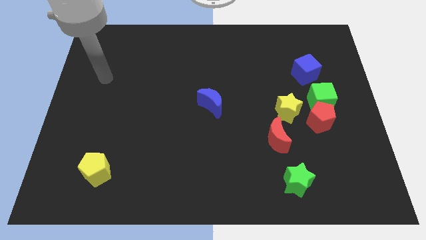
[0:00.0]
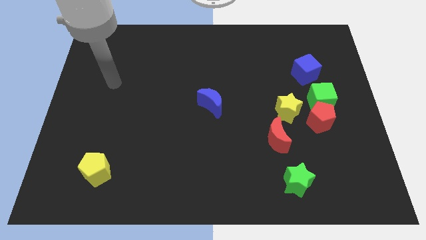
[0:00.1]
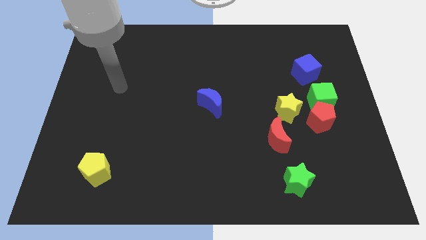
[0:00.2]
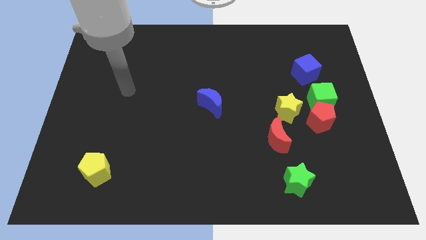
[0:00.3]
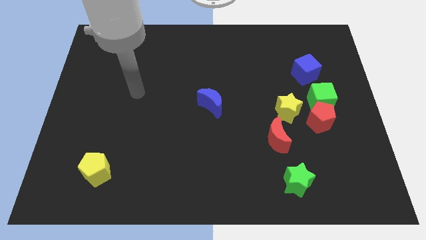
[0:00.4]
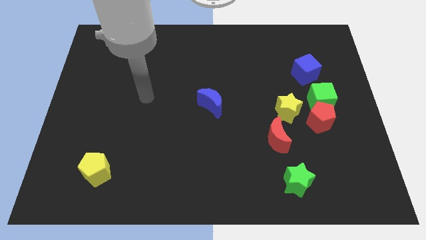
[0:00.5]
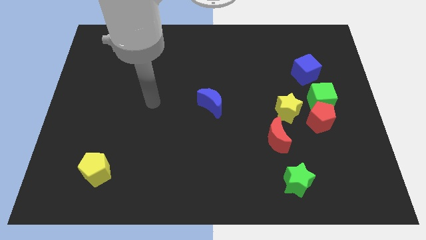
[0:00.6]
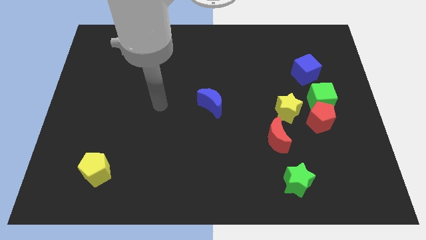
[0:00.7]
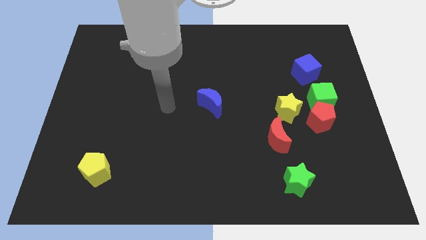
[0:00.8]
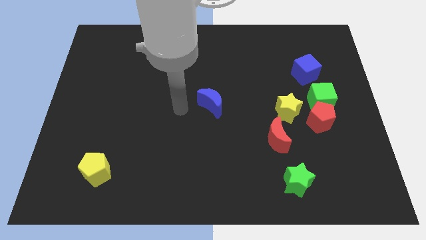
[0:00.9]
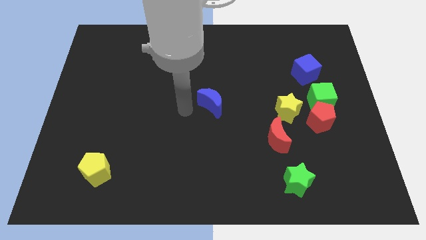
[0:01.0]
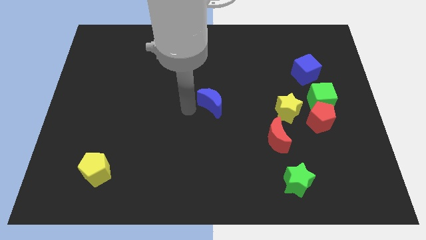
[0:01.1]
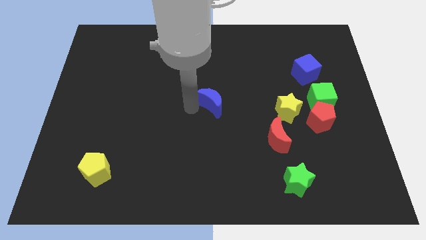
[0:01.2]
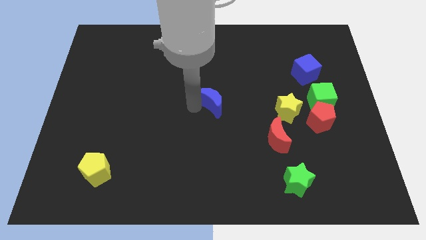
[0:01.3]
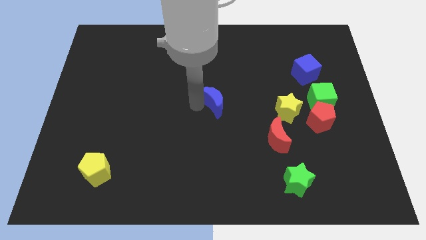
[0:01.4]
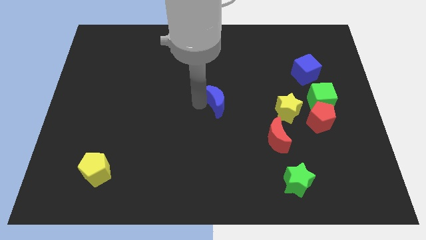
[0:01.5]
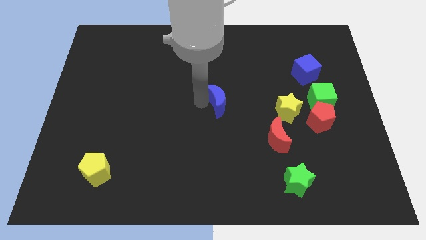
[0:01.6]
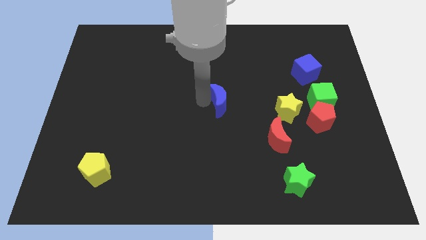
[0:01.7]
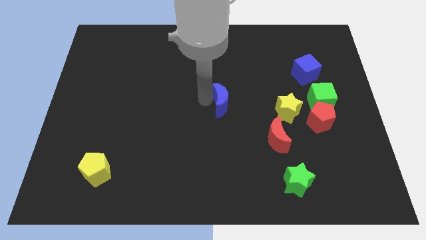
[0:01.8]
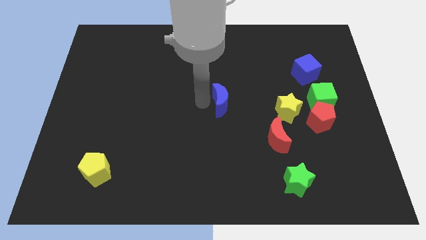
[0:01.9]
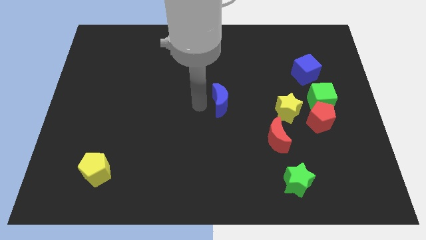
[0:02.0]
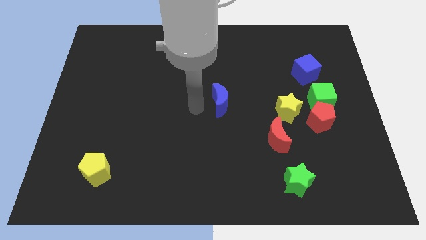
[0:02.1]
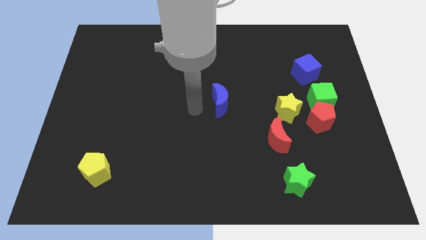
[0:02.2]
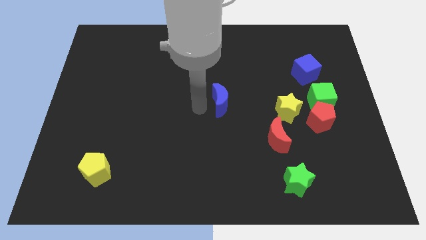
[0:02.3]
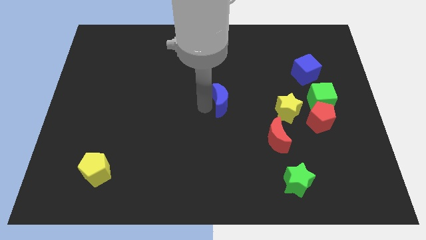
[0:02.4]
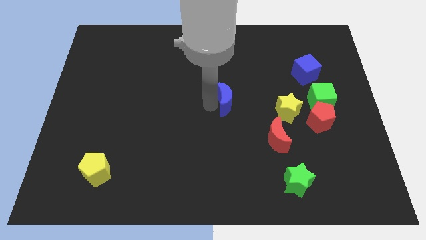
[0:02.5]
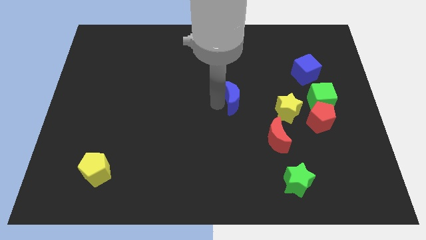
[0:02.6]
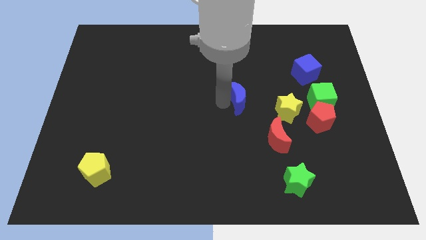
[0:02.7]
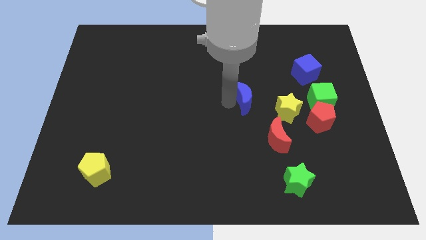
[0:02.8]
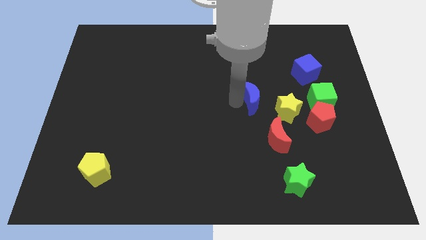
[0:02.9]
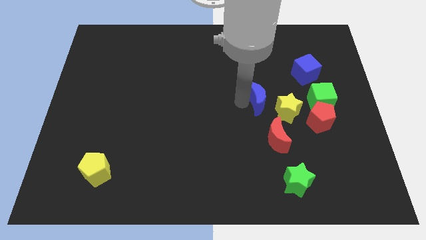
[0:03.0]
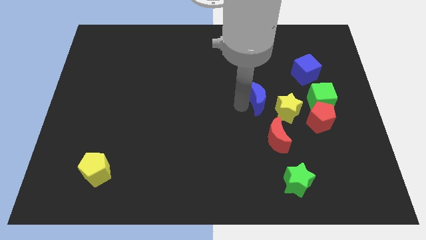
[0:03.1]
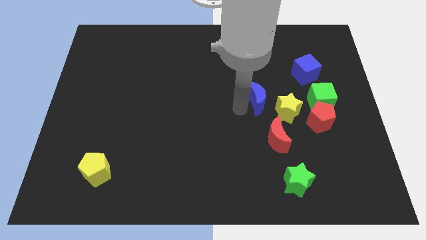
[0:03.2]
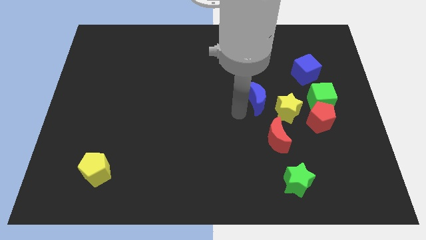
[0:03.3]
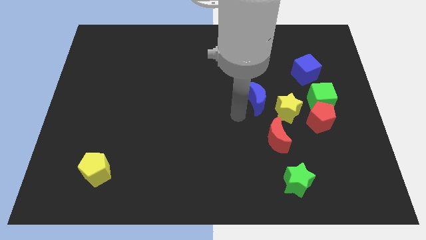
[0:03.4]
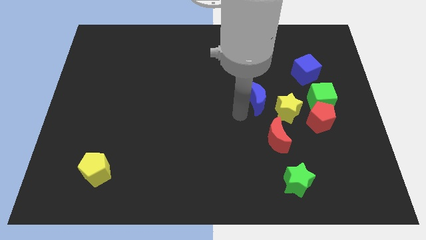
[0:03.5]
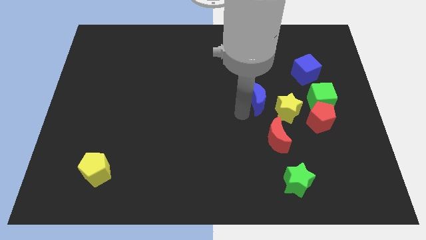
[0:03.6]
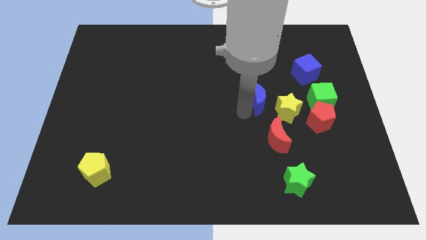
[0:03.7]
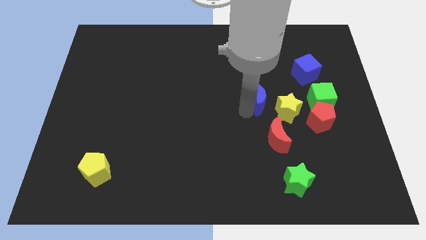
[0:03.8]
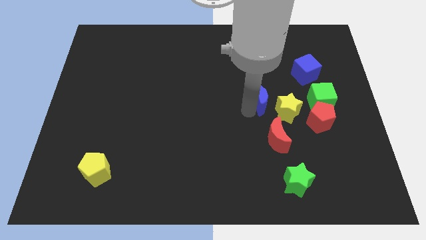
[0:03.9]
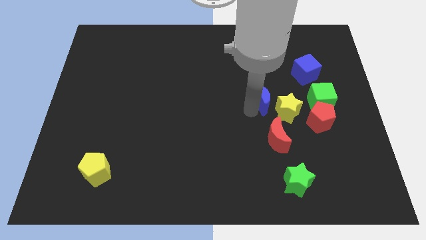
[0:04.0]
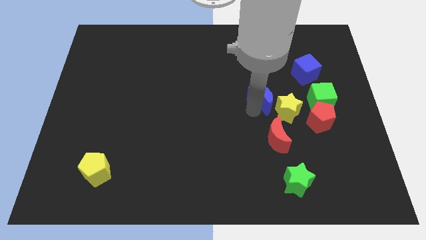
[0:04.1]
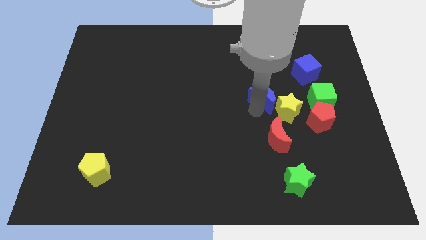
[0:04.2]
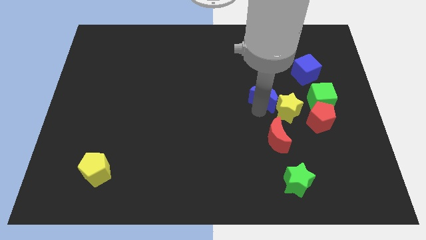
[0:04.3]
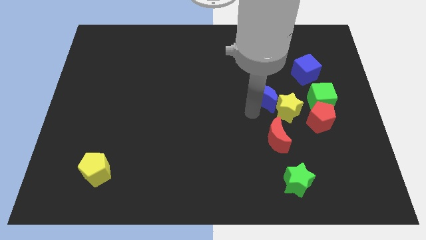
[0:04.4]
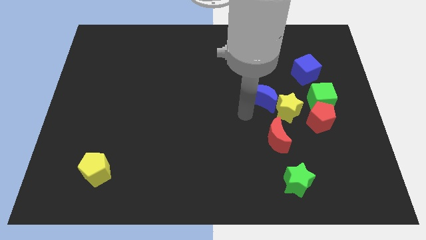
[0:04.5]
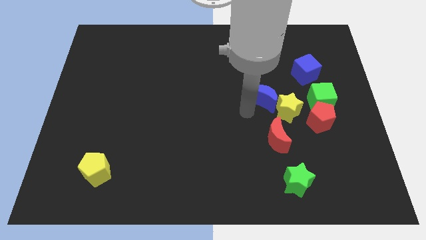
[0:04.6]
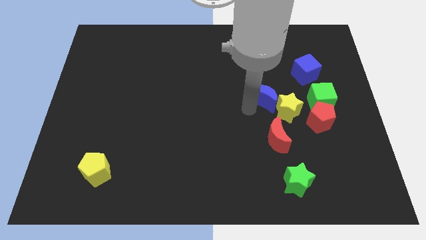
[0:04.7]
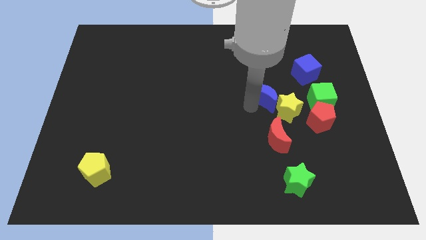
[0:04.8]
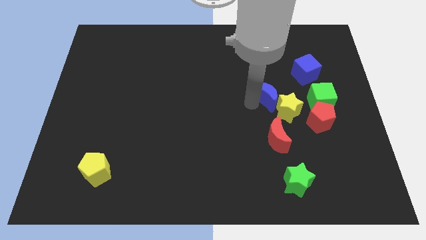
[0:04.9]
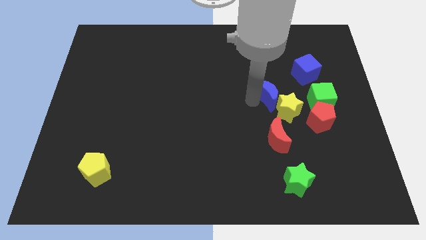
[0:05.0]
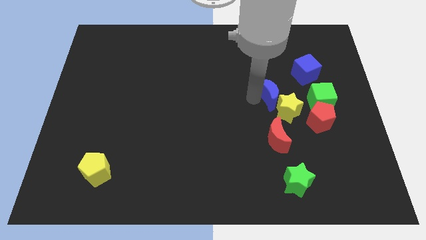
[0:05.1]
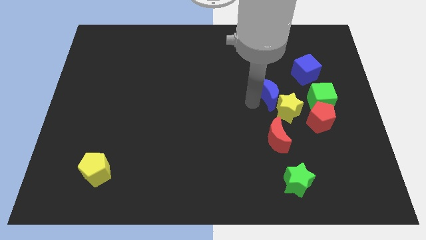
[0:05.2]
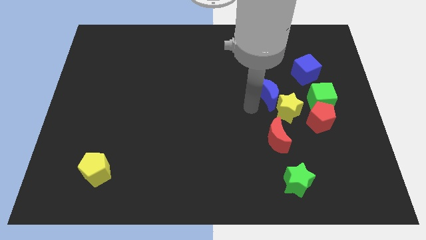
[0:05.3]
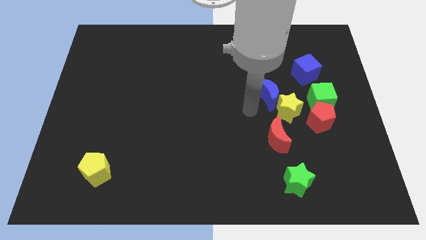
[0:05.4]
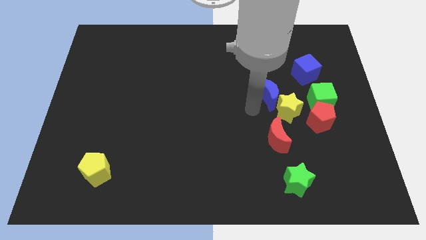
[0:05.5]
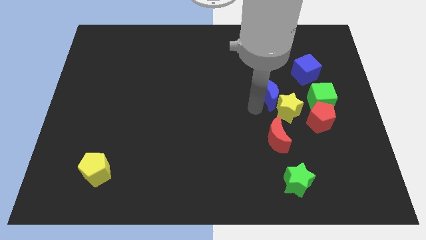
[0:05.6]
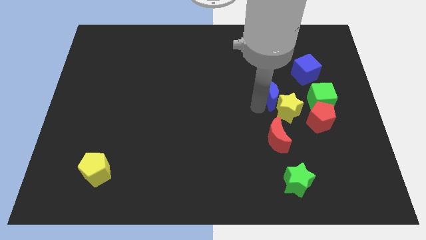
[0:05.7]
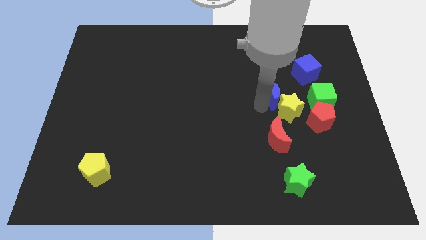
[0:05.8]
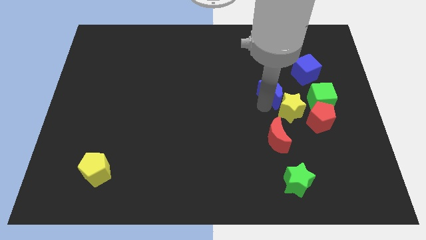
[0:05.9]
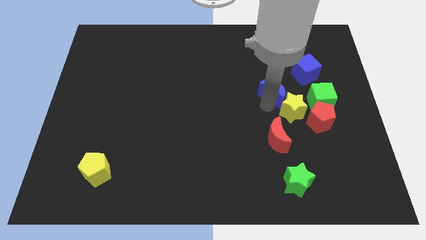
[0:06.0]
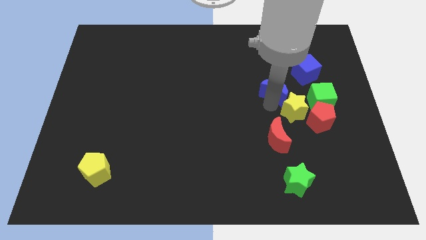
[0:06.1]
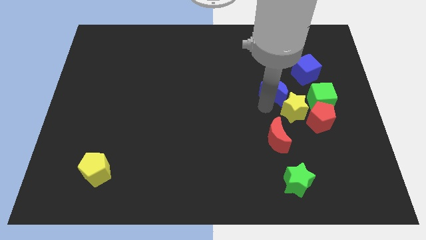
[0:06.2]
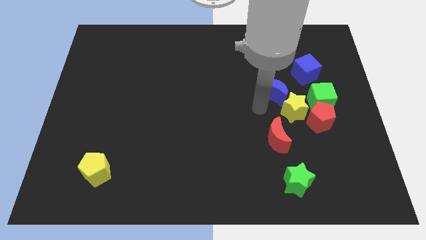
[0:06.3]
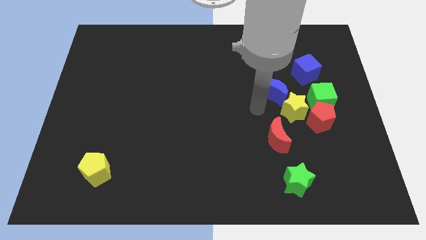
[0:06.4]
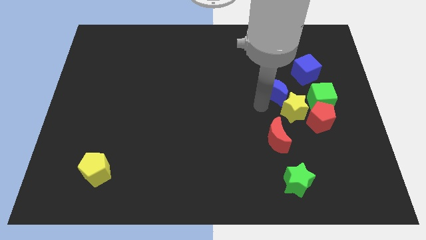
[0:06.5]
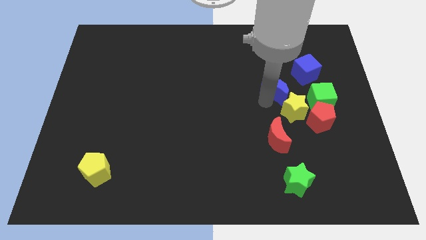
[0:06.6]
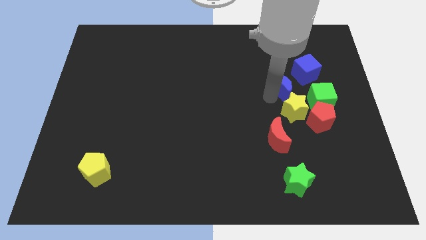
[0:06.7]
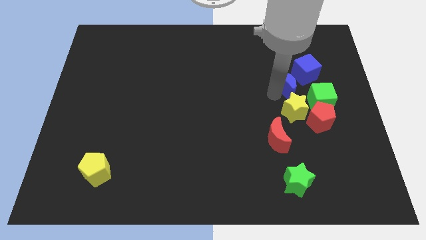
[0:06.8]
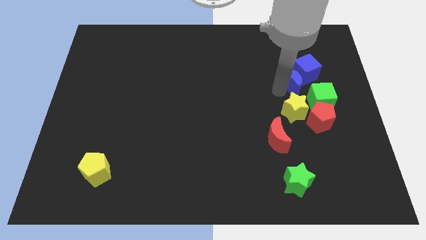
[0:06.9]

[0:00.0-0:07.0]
slide the blue moon towards the blue cube

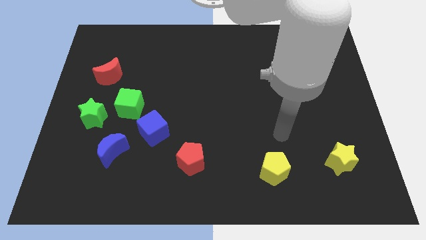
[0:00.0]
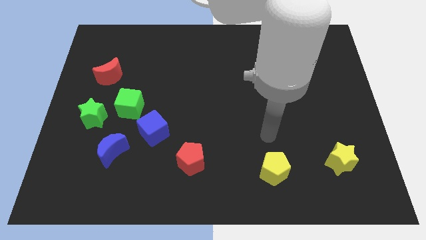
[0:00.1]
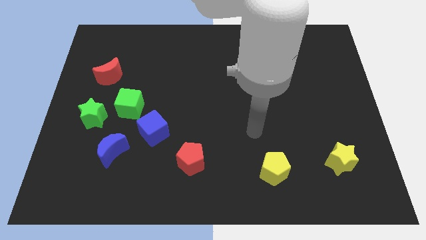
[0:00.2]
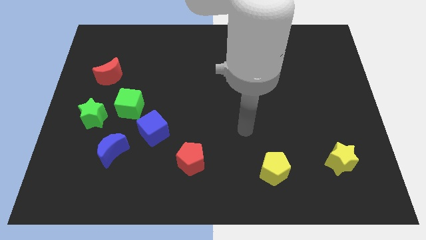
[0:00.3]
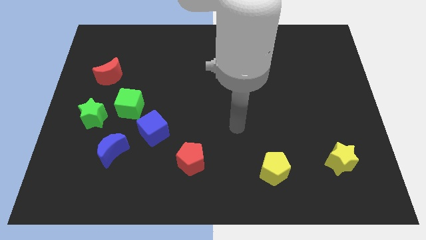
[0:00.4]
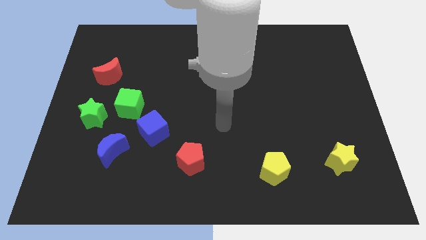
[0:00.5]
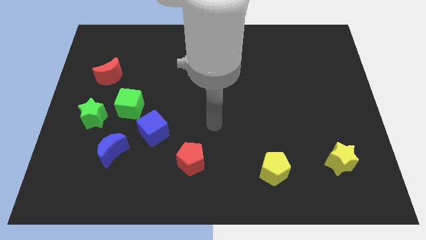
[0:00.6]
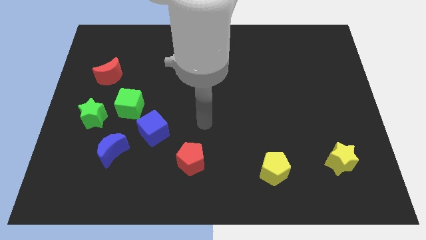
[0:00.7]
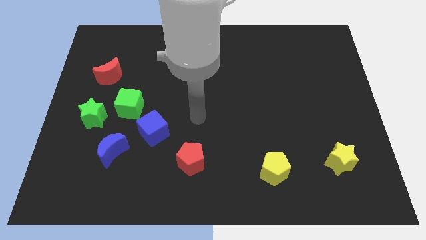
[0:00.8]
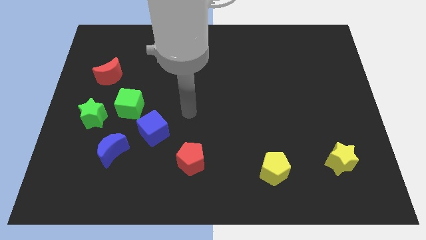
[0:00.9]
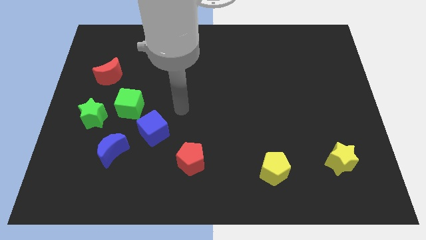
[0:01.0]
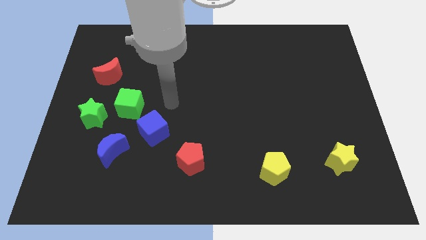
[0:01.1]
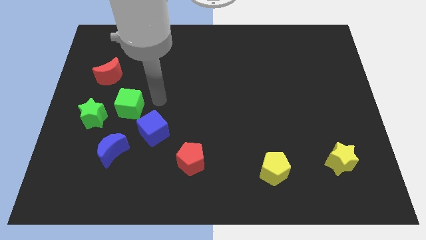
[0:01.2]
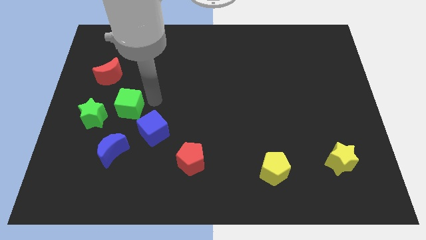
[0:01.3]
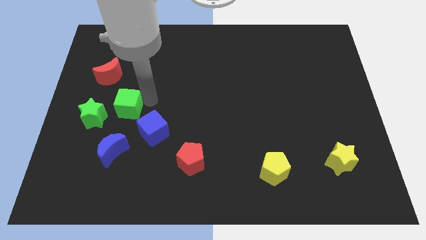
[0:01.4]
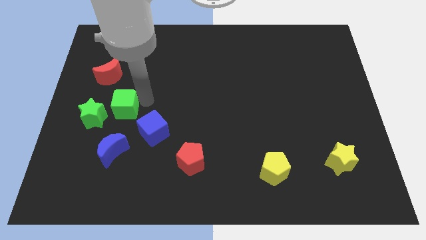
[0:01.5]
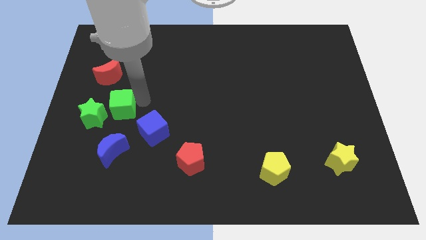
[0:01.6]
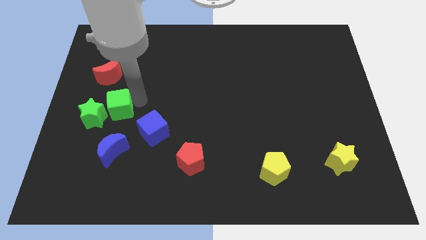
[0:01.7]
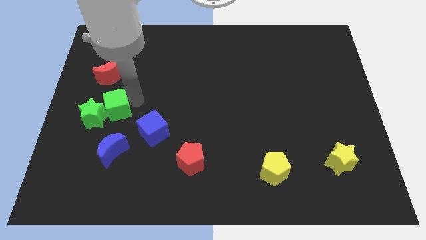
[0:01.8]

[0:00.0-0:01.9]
move the green cube to the green star
